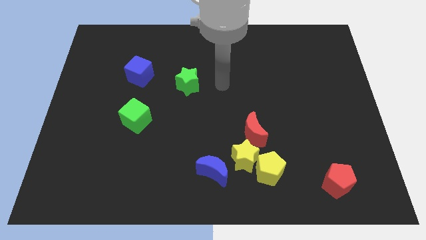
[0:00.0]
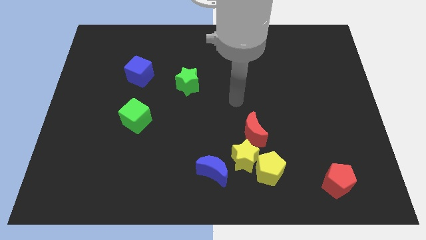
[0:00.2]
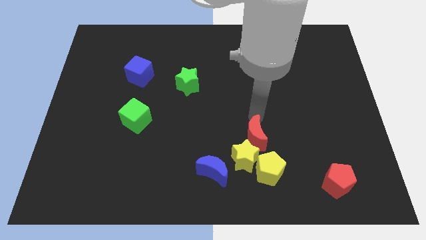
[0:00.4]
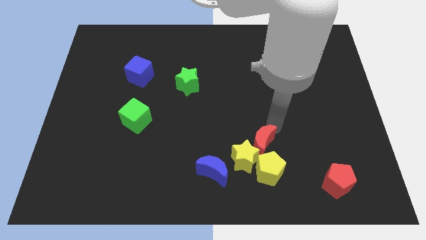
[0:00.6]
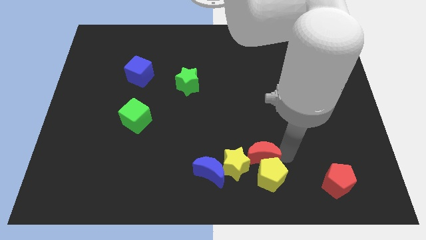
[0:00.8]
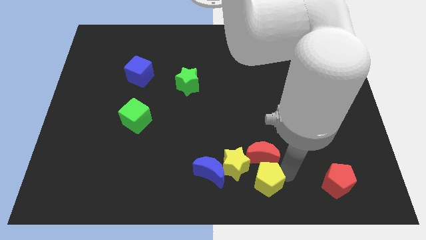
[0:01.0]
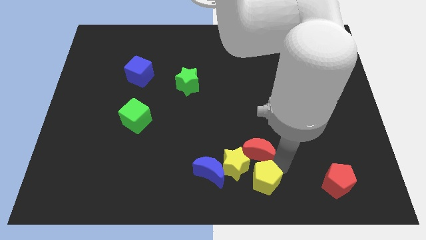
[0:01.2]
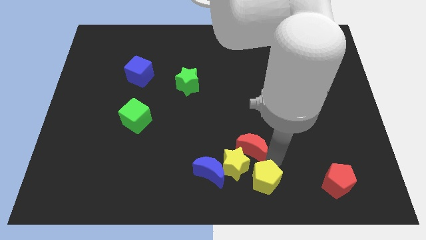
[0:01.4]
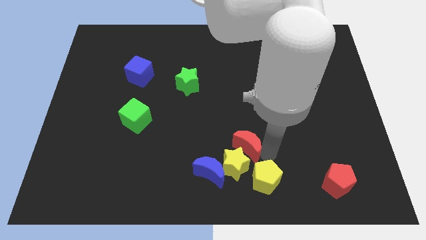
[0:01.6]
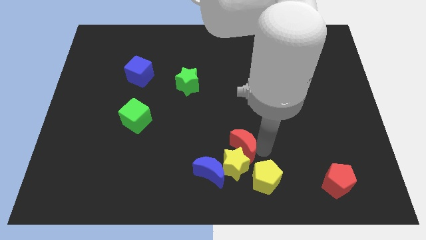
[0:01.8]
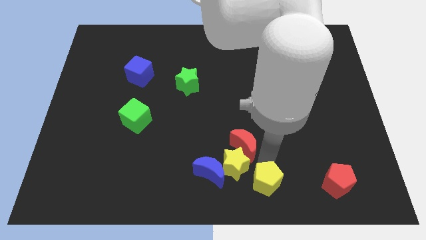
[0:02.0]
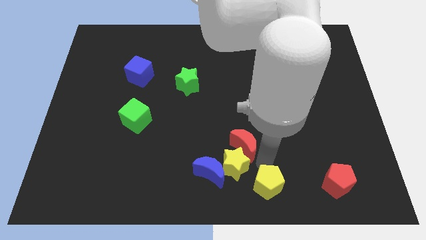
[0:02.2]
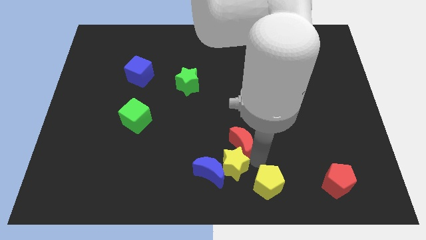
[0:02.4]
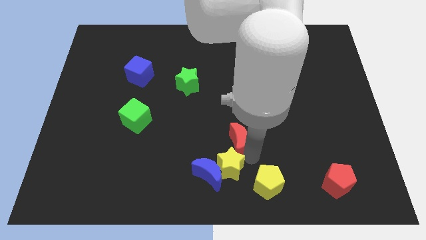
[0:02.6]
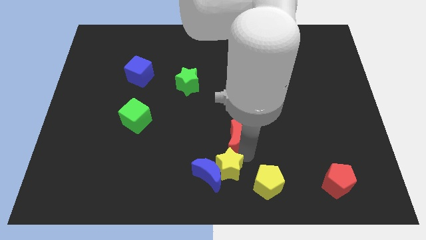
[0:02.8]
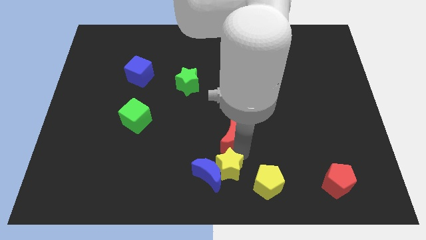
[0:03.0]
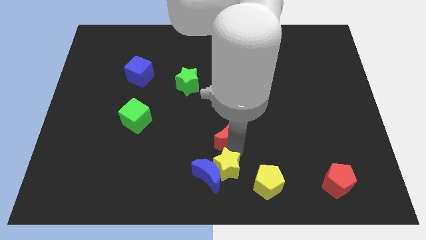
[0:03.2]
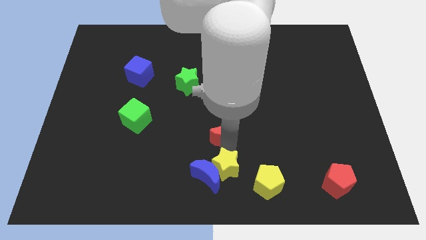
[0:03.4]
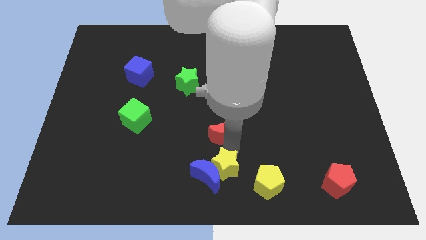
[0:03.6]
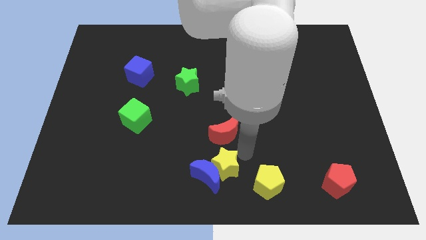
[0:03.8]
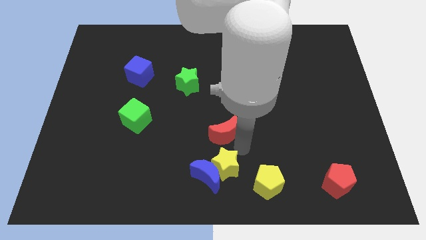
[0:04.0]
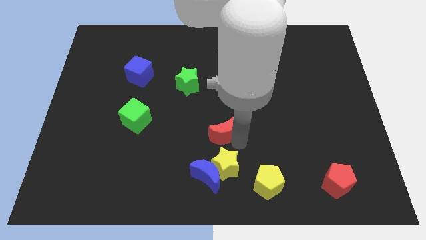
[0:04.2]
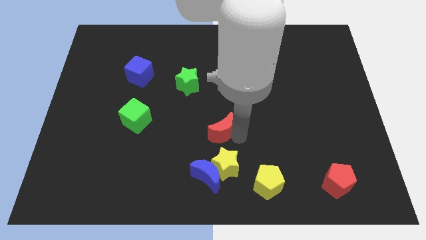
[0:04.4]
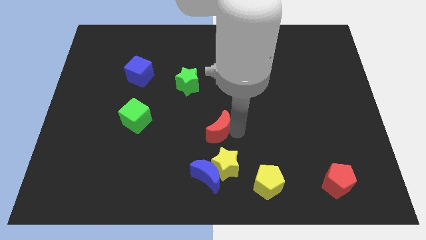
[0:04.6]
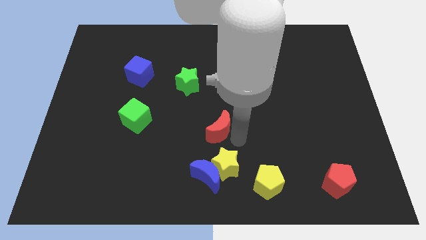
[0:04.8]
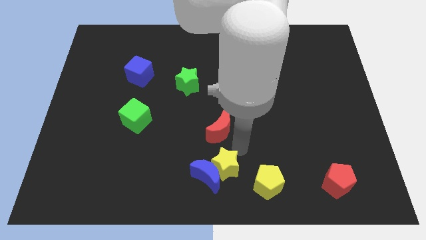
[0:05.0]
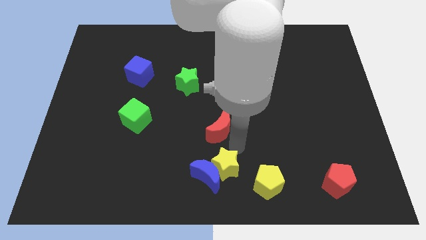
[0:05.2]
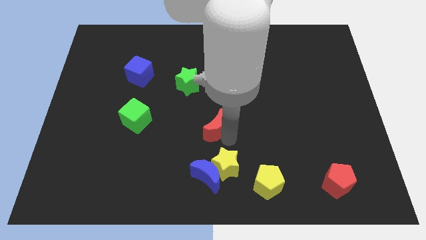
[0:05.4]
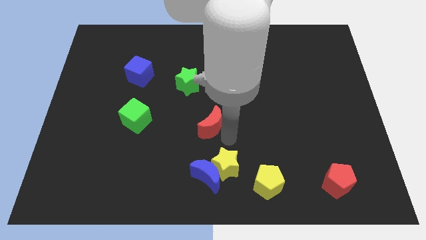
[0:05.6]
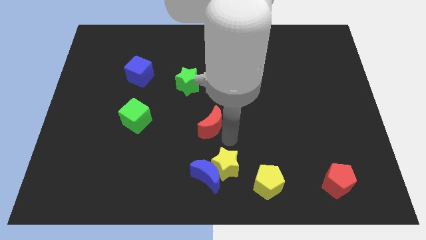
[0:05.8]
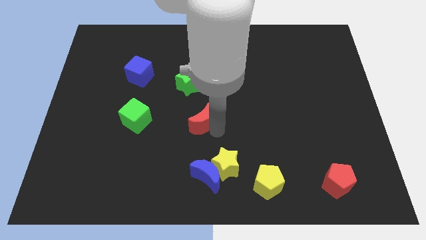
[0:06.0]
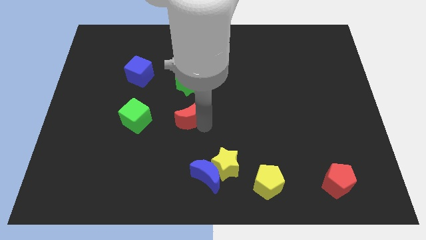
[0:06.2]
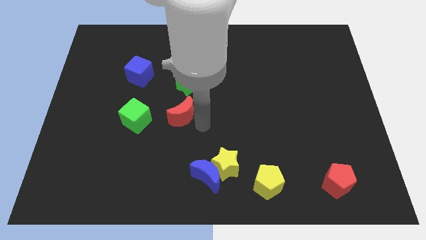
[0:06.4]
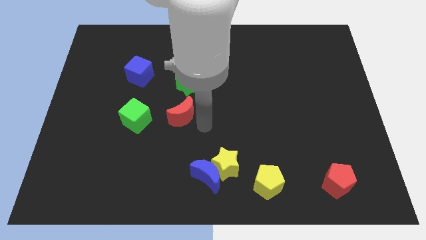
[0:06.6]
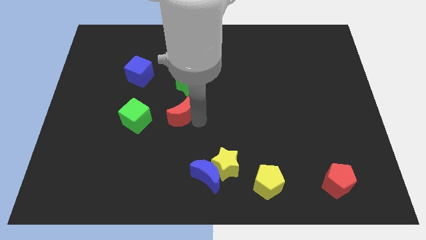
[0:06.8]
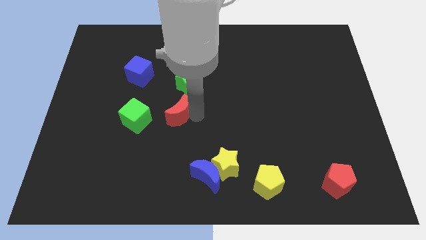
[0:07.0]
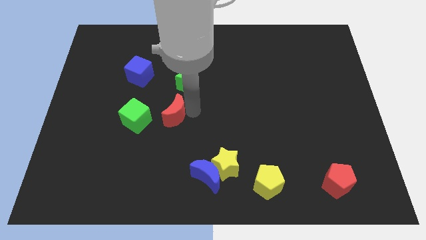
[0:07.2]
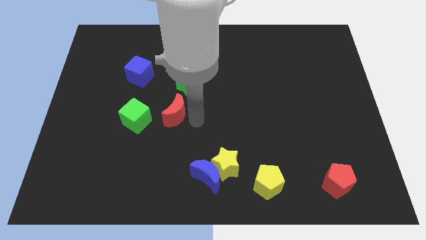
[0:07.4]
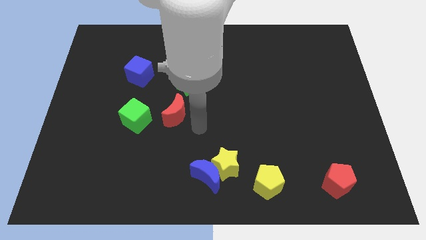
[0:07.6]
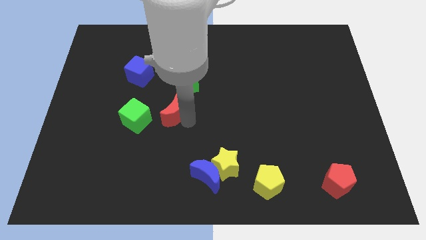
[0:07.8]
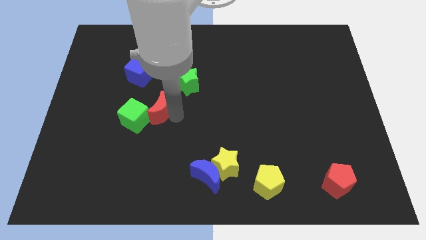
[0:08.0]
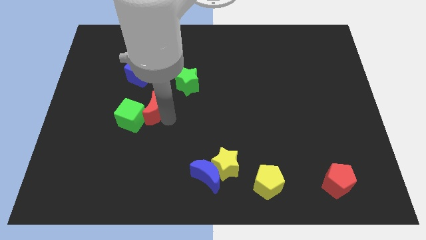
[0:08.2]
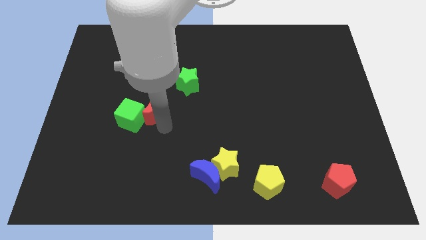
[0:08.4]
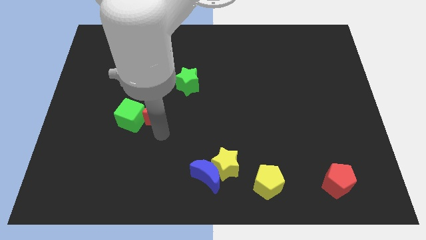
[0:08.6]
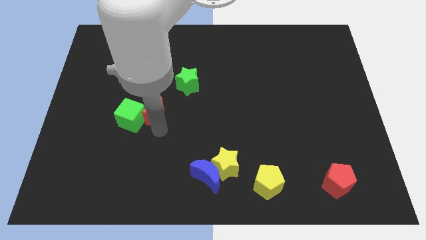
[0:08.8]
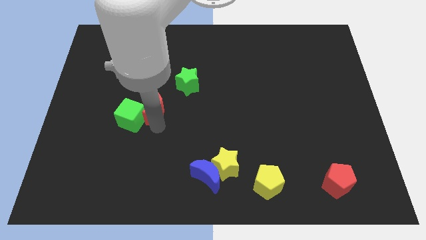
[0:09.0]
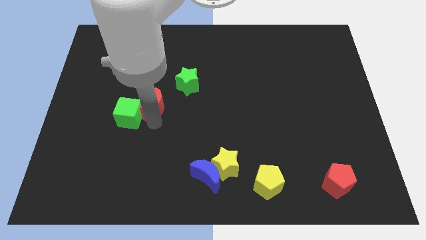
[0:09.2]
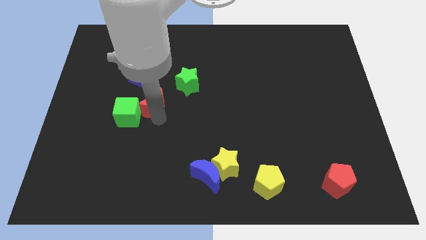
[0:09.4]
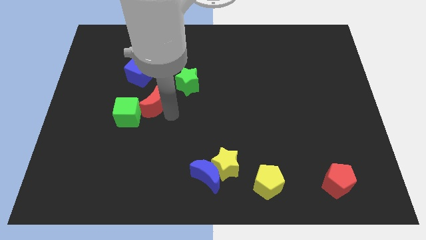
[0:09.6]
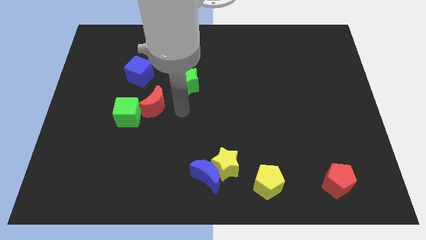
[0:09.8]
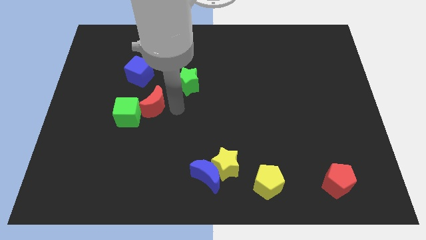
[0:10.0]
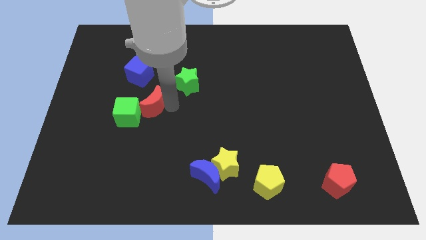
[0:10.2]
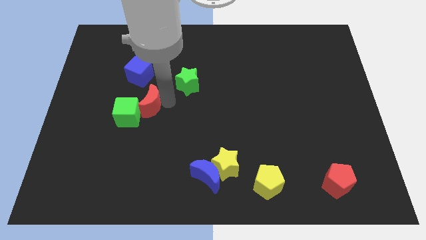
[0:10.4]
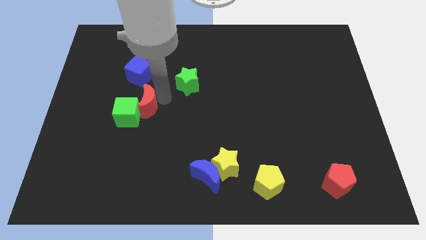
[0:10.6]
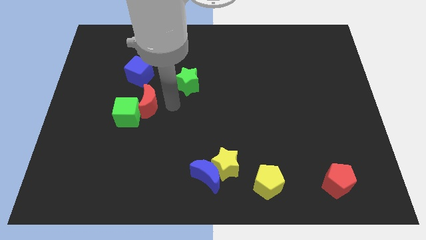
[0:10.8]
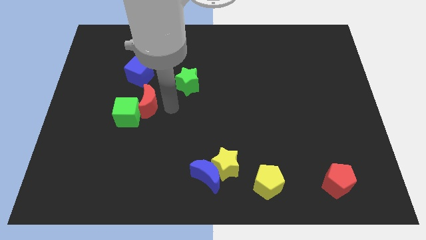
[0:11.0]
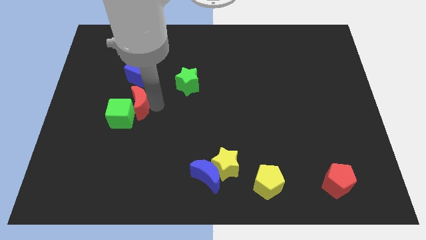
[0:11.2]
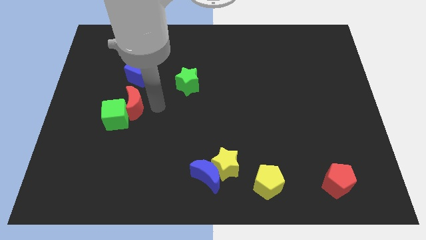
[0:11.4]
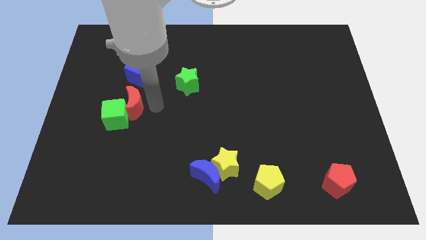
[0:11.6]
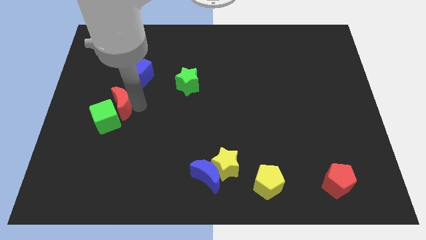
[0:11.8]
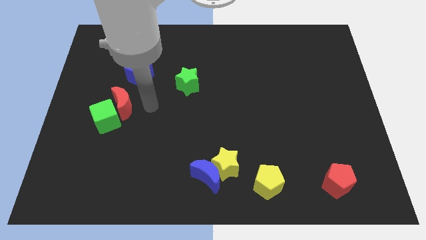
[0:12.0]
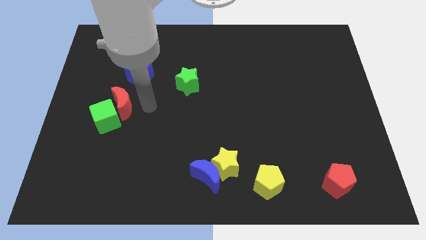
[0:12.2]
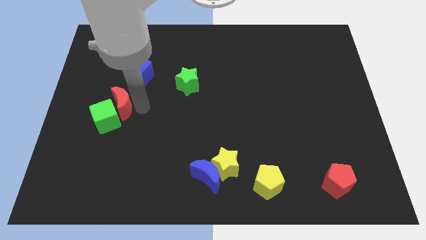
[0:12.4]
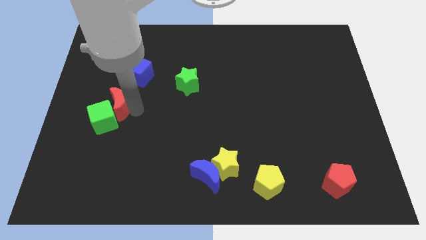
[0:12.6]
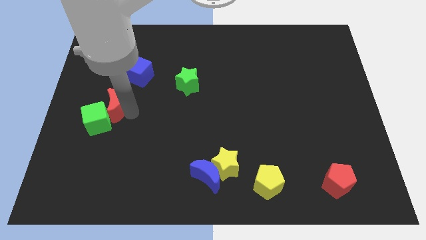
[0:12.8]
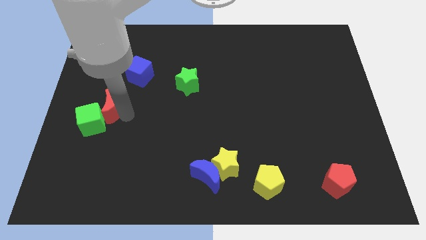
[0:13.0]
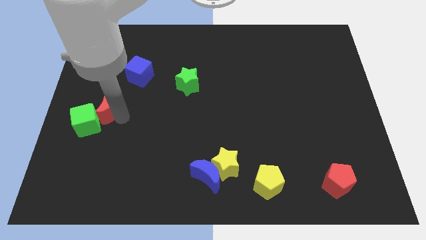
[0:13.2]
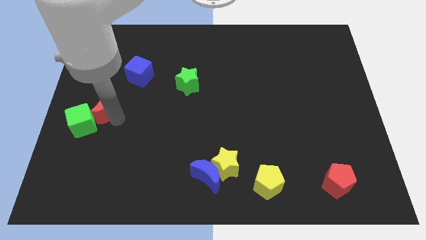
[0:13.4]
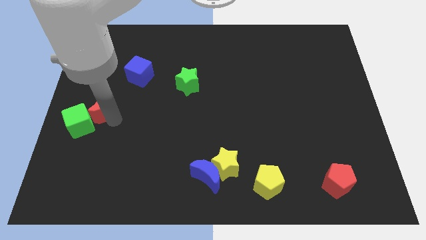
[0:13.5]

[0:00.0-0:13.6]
push the red moon to the left side of the board
